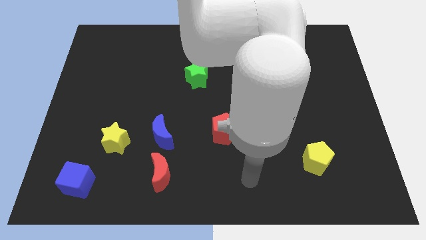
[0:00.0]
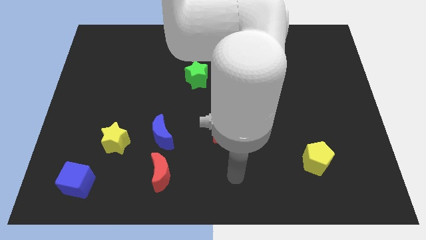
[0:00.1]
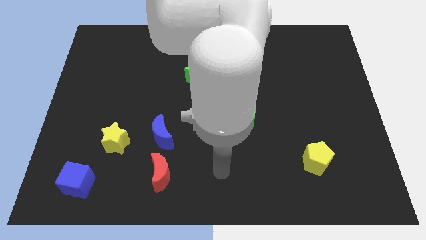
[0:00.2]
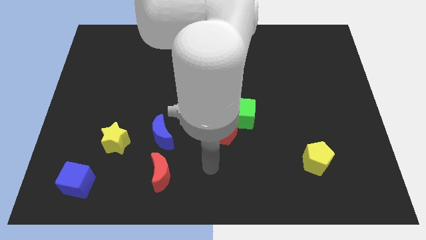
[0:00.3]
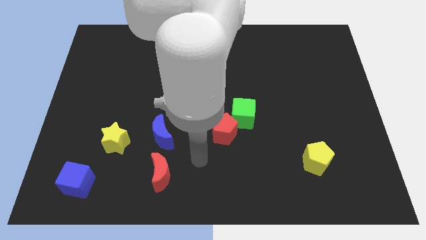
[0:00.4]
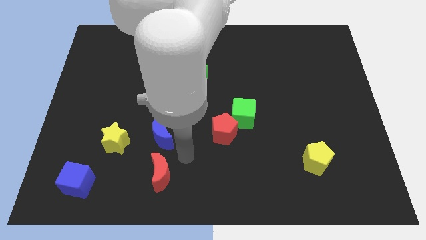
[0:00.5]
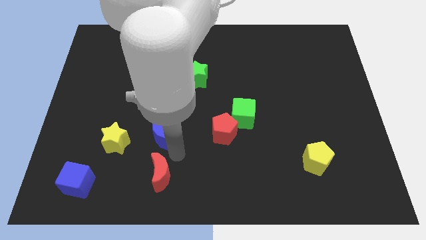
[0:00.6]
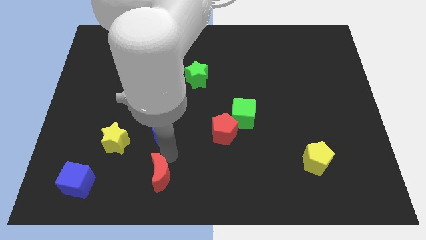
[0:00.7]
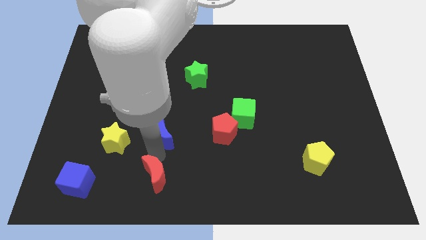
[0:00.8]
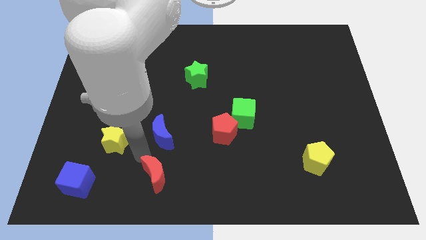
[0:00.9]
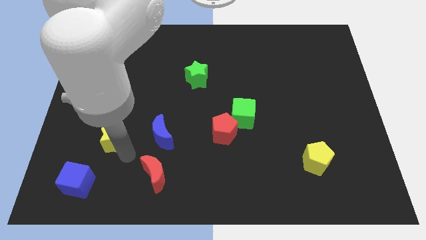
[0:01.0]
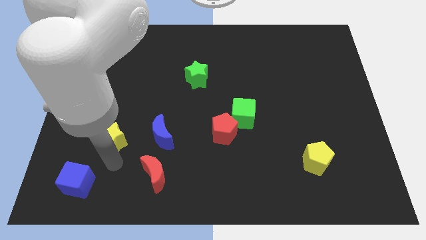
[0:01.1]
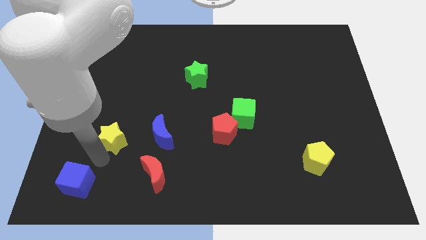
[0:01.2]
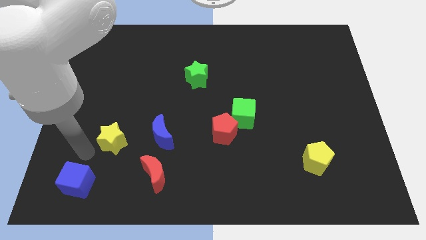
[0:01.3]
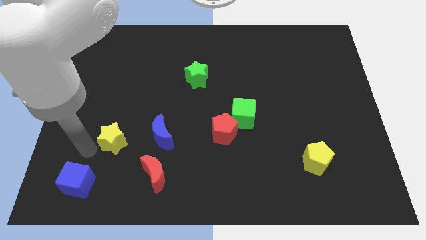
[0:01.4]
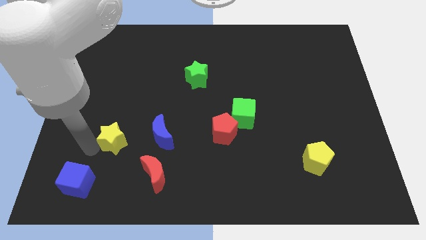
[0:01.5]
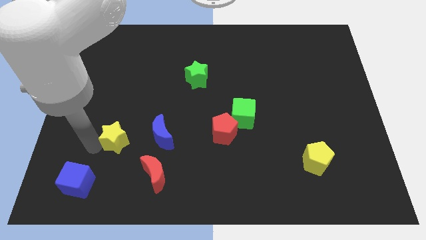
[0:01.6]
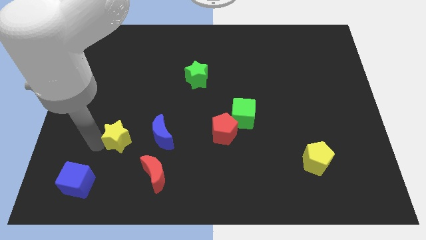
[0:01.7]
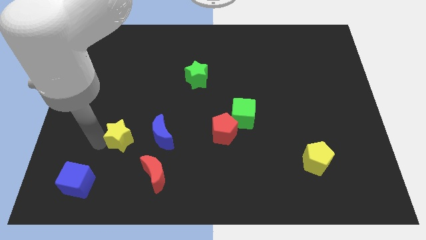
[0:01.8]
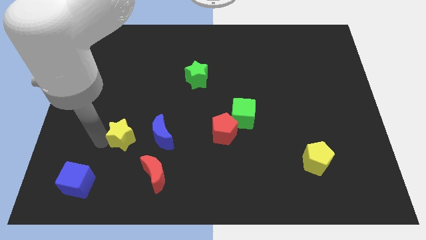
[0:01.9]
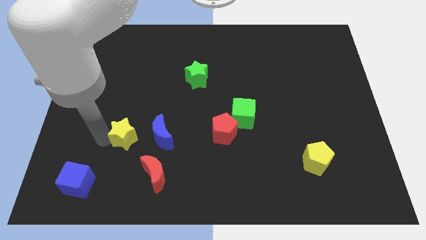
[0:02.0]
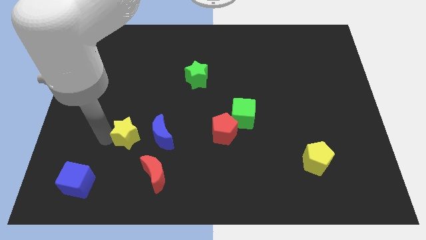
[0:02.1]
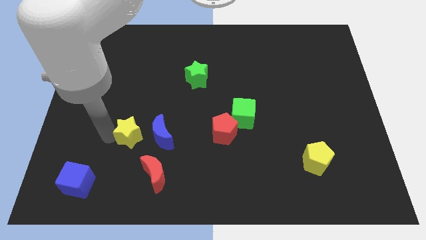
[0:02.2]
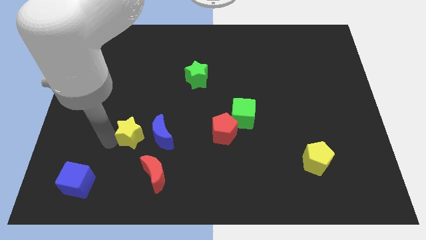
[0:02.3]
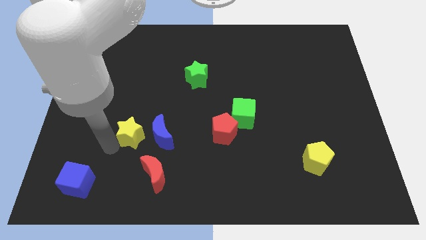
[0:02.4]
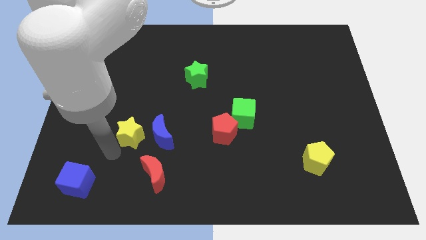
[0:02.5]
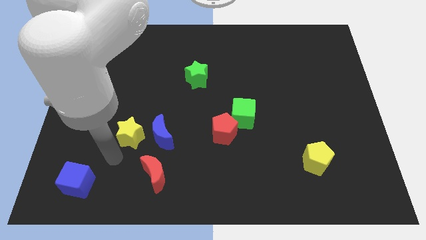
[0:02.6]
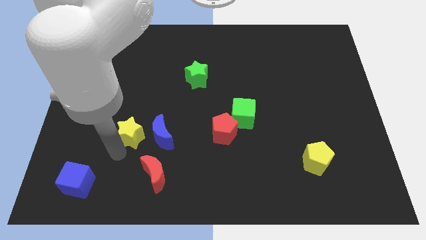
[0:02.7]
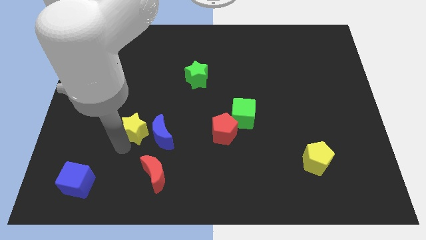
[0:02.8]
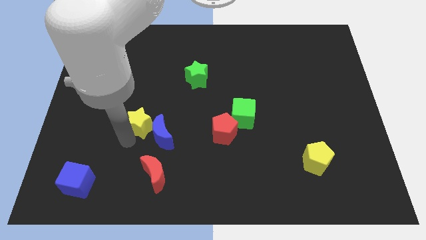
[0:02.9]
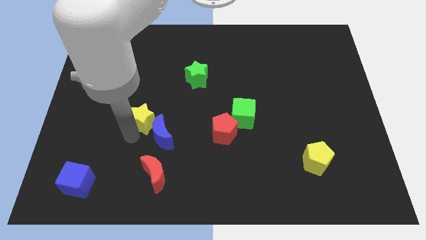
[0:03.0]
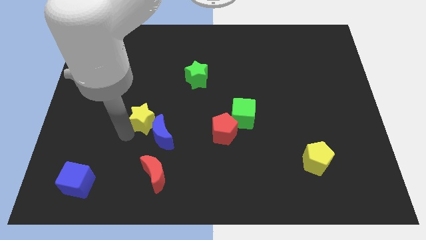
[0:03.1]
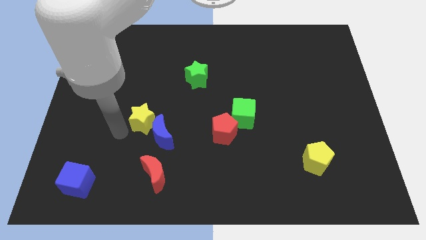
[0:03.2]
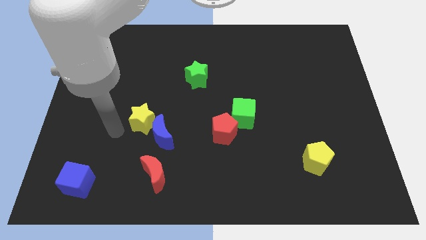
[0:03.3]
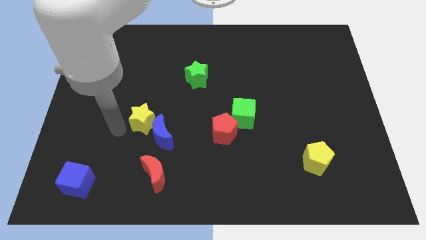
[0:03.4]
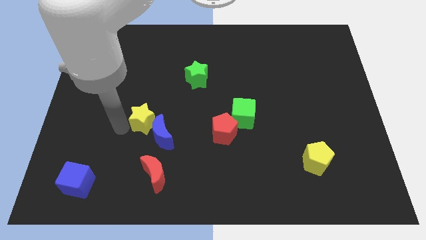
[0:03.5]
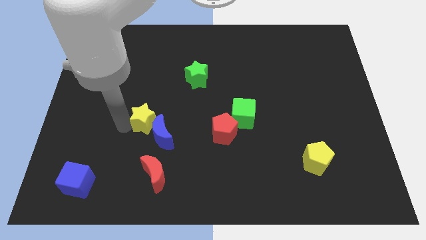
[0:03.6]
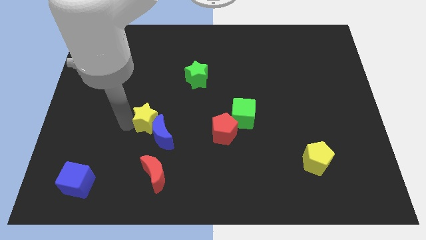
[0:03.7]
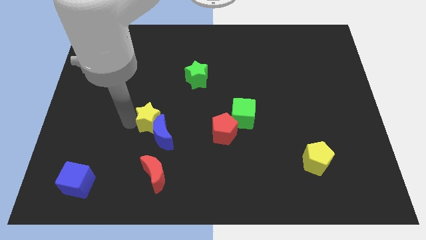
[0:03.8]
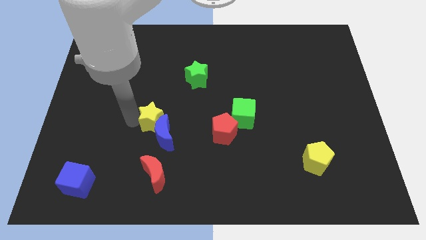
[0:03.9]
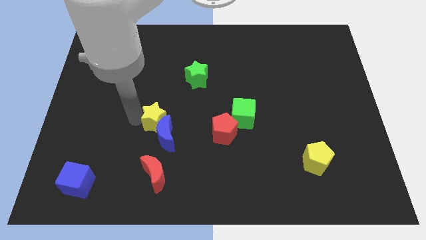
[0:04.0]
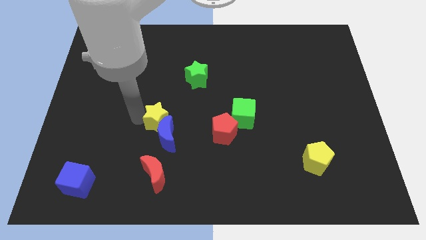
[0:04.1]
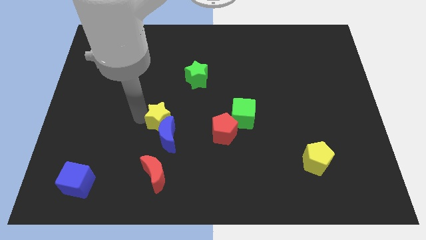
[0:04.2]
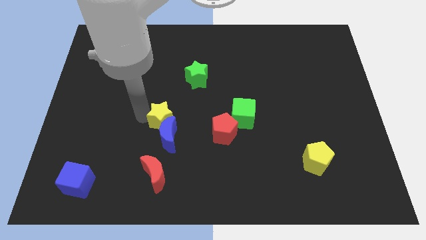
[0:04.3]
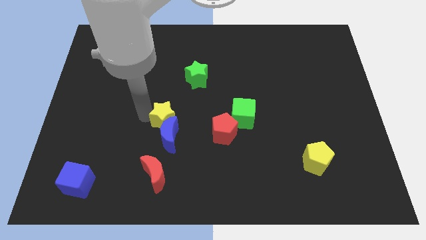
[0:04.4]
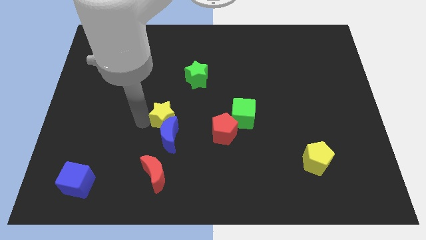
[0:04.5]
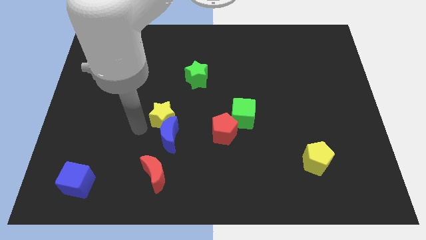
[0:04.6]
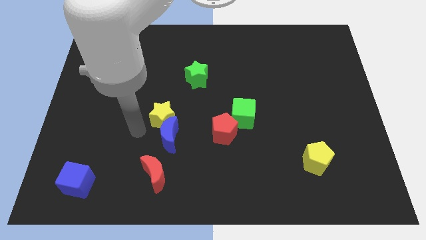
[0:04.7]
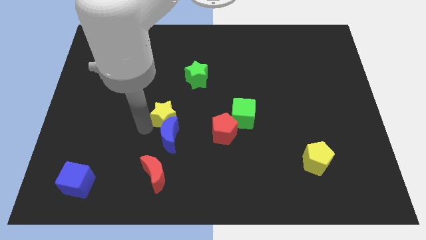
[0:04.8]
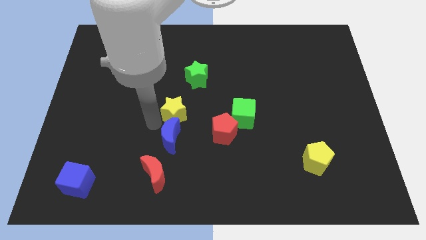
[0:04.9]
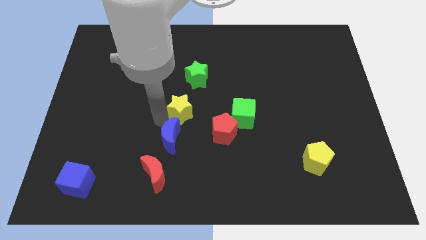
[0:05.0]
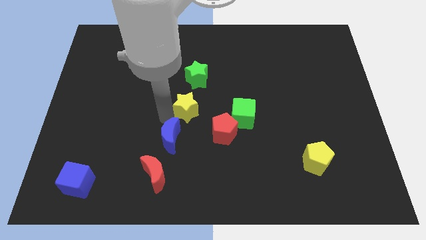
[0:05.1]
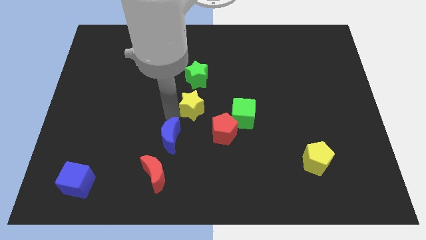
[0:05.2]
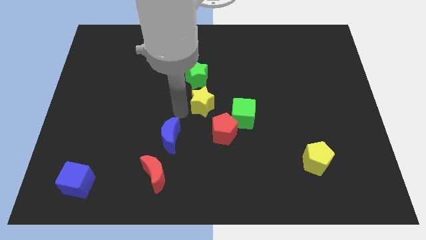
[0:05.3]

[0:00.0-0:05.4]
slide the yellow star to the top of the red pentagon

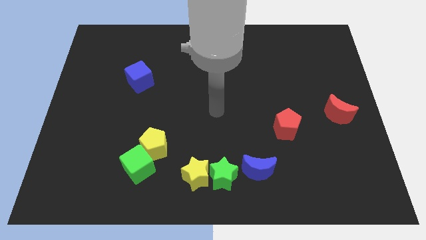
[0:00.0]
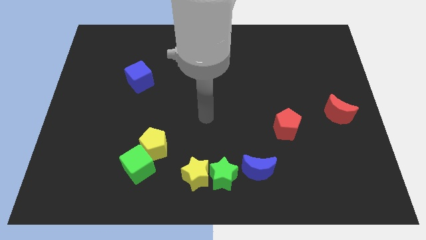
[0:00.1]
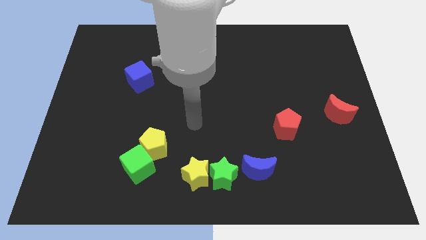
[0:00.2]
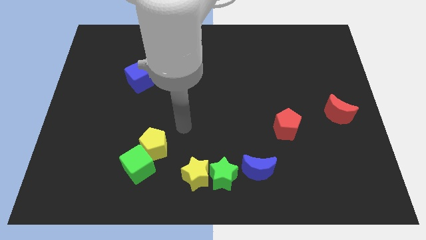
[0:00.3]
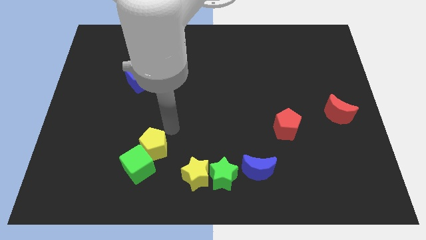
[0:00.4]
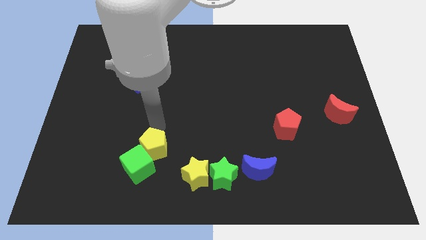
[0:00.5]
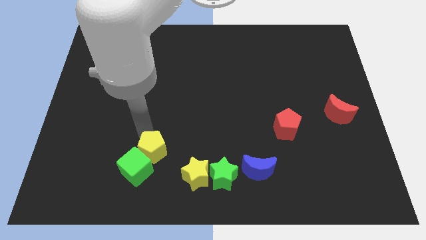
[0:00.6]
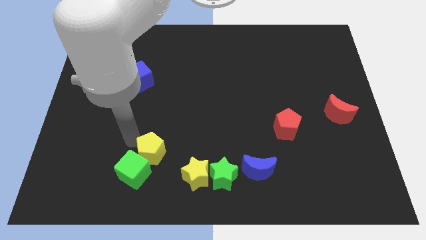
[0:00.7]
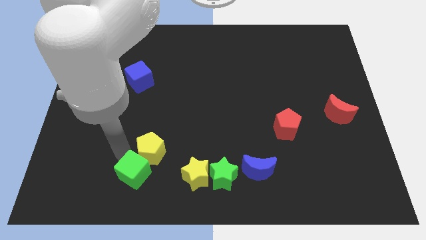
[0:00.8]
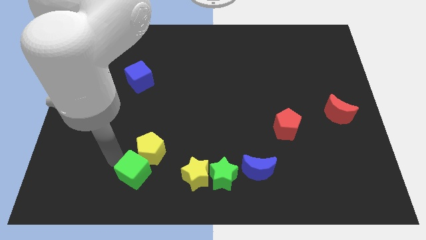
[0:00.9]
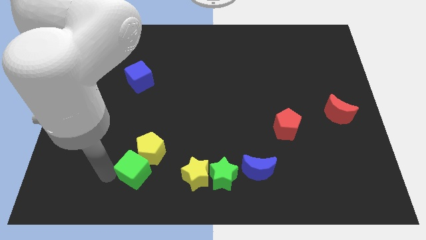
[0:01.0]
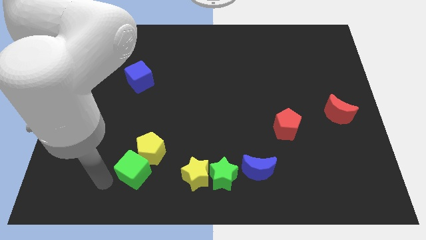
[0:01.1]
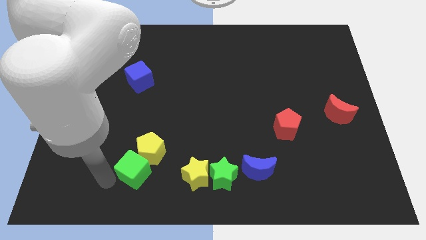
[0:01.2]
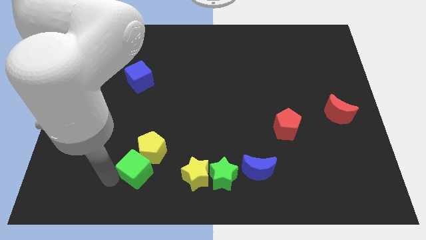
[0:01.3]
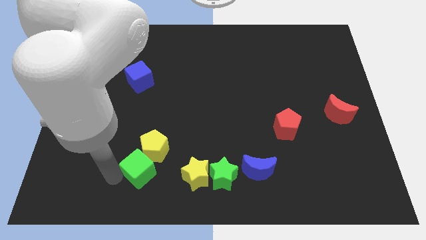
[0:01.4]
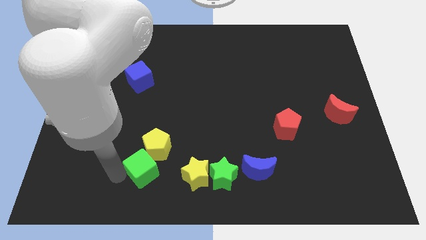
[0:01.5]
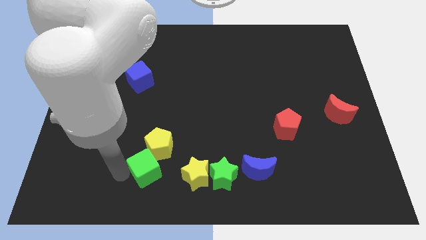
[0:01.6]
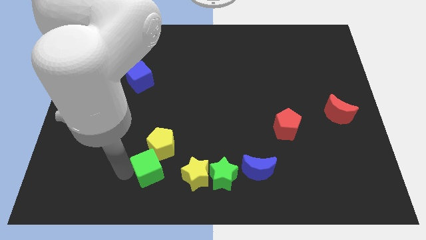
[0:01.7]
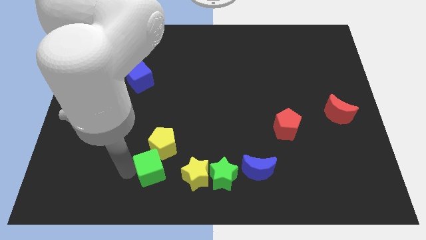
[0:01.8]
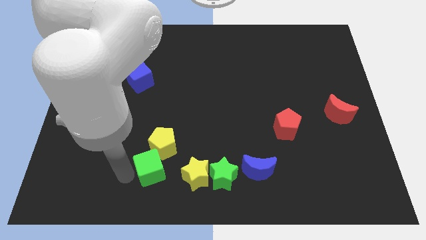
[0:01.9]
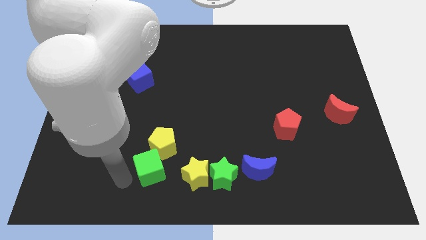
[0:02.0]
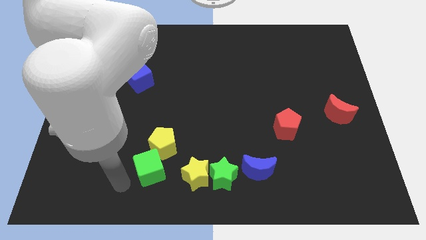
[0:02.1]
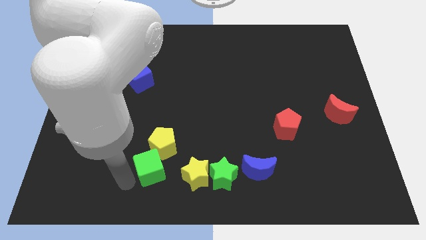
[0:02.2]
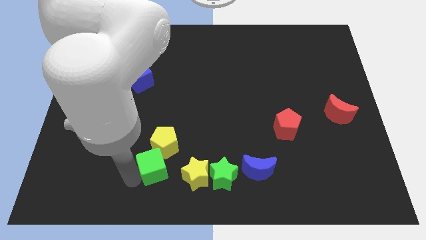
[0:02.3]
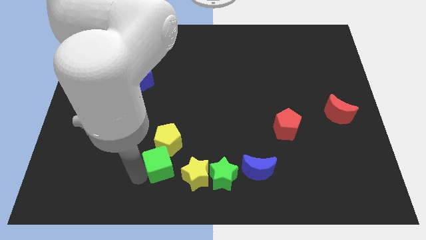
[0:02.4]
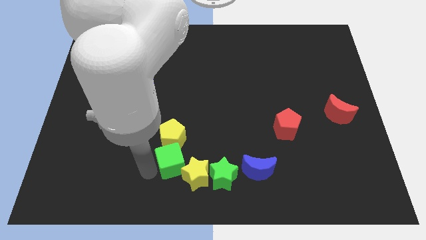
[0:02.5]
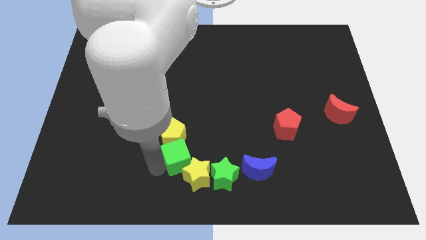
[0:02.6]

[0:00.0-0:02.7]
move the green cube to the top left of the green star
